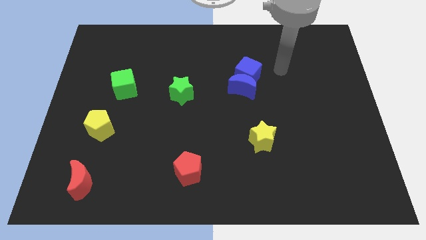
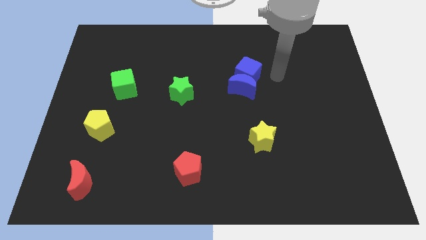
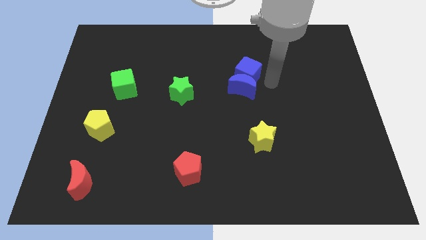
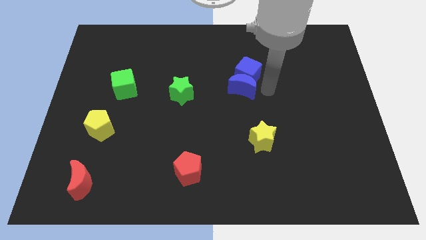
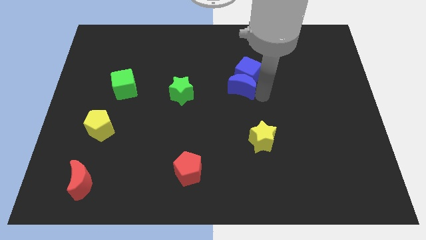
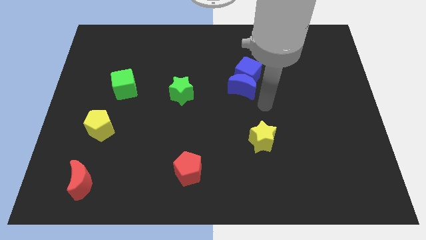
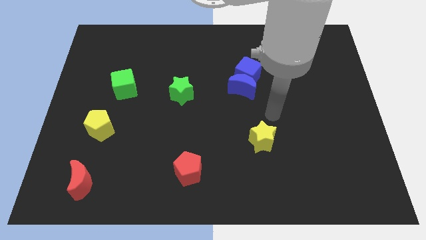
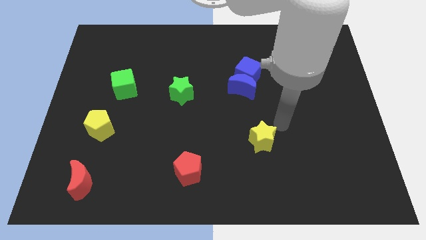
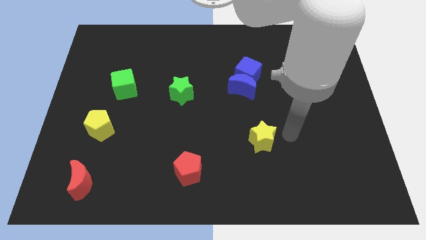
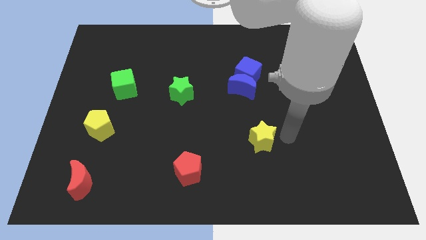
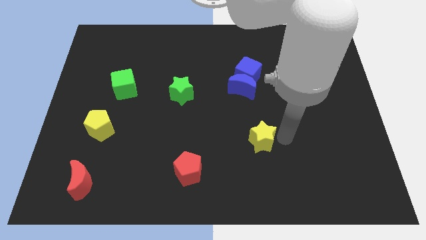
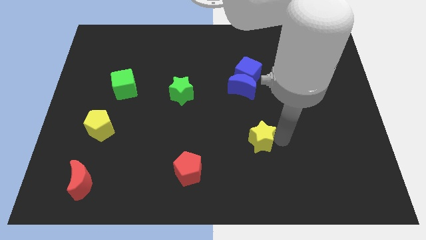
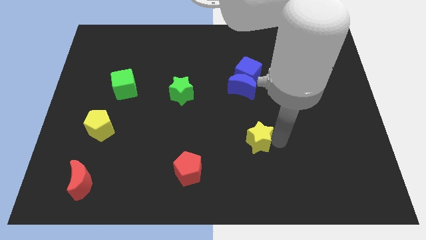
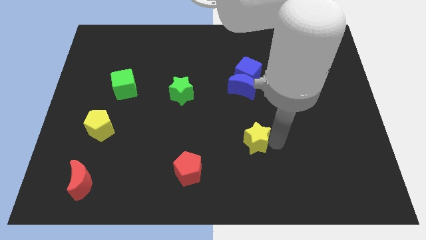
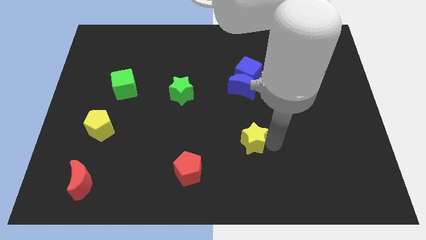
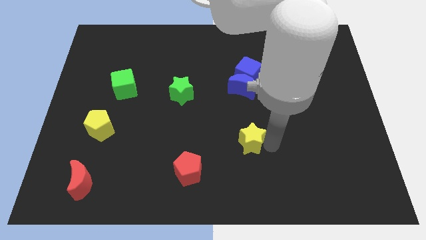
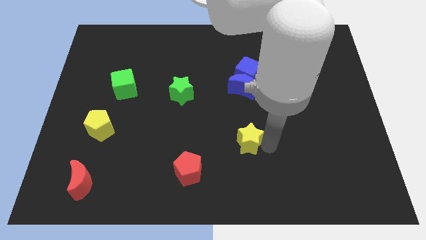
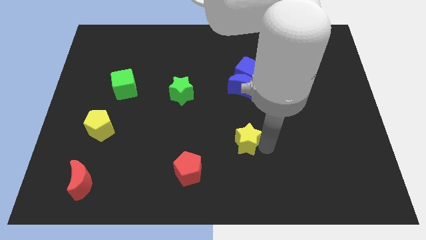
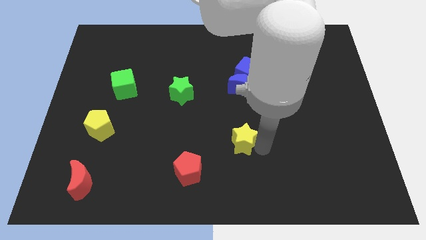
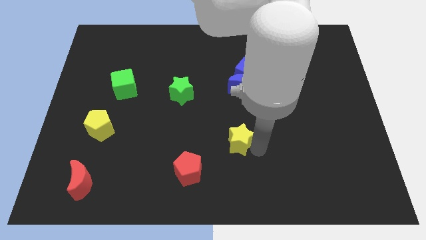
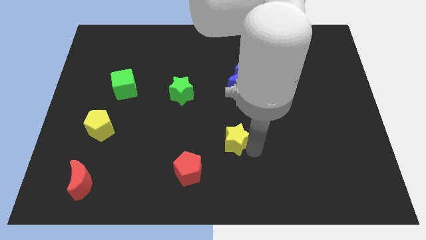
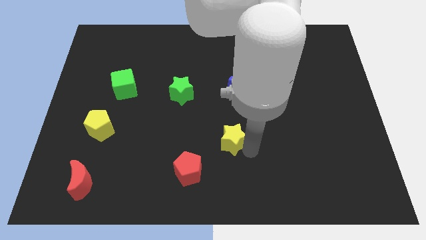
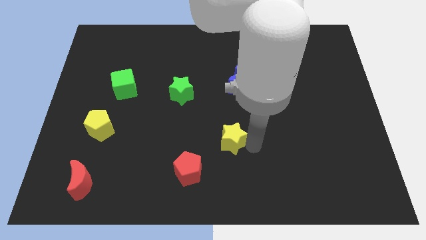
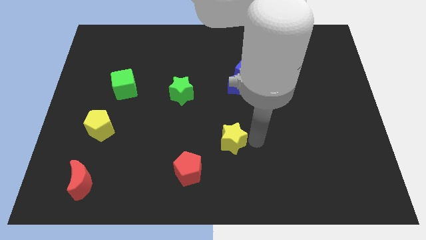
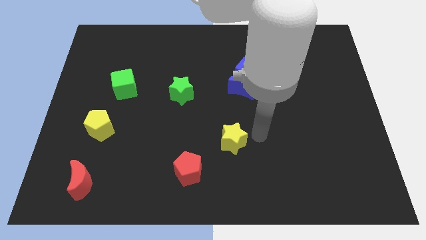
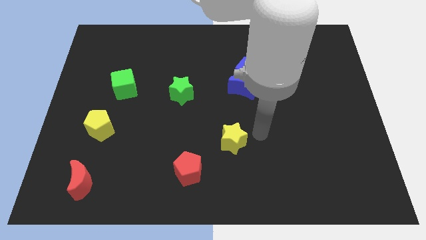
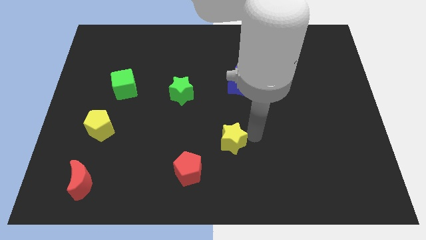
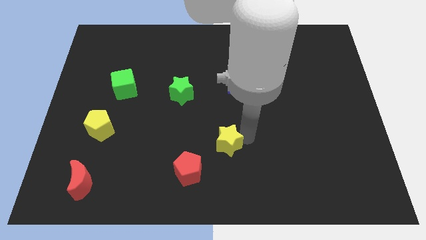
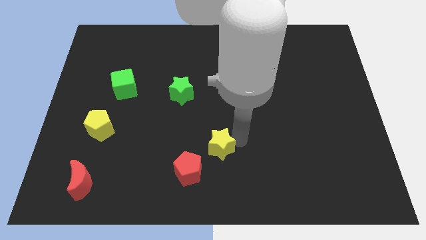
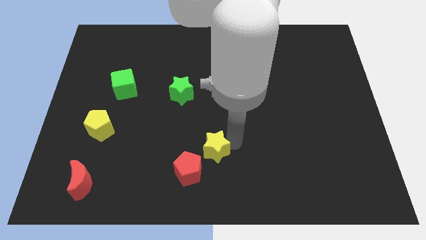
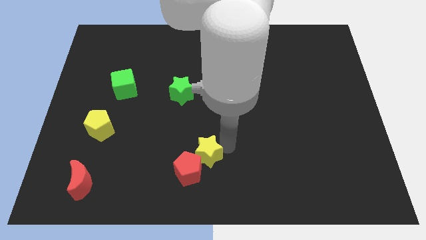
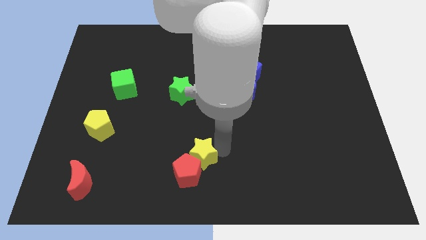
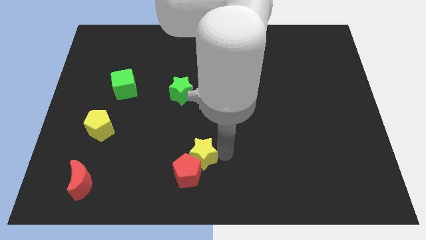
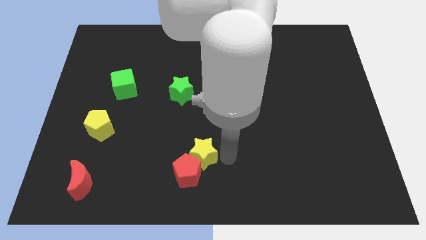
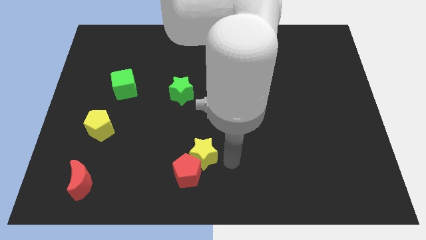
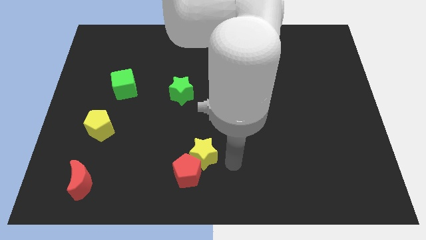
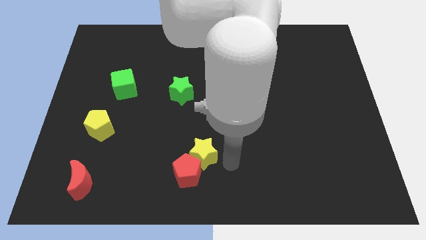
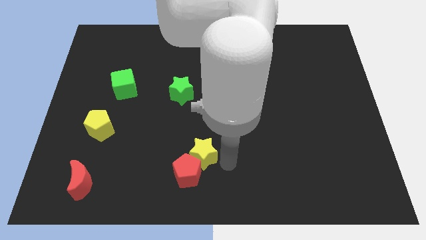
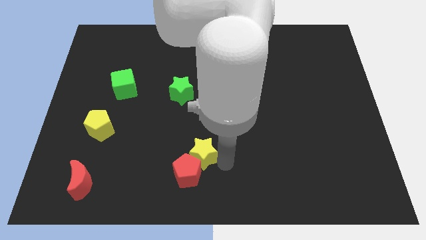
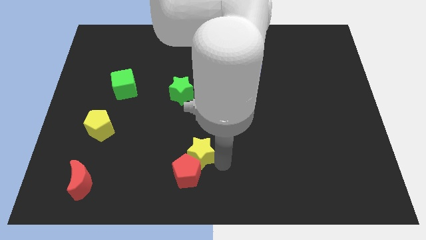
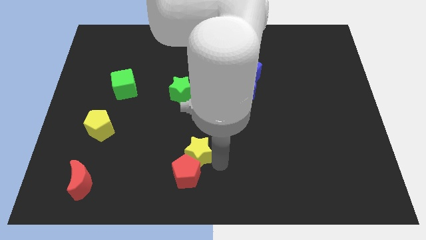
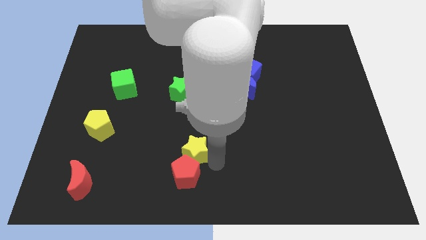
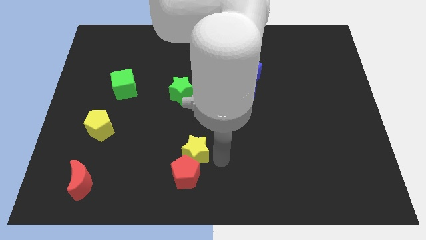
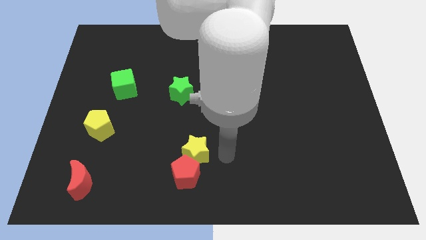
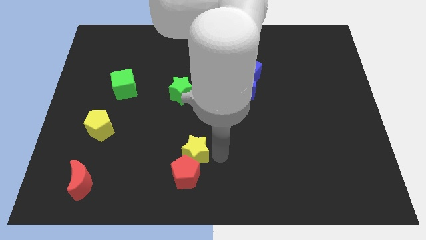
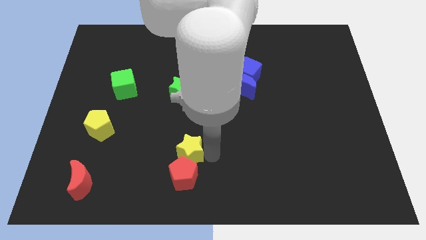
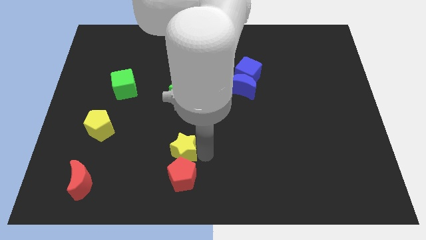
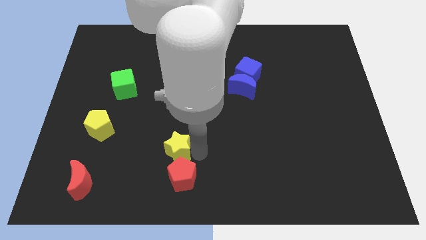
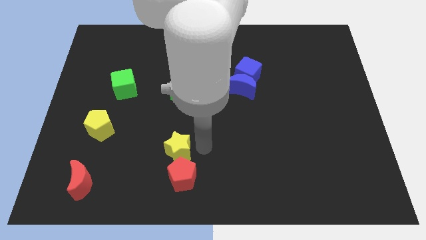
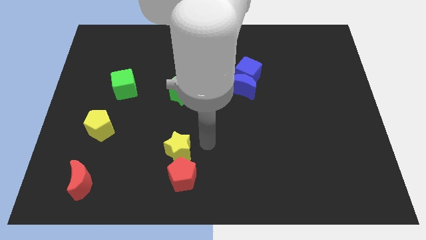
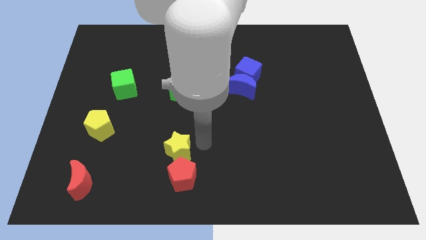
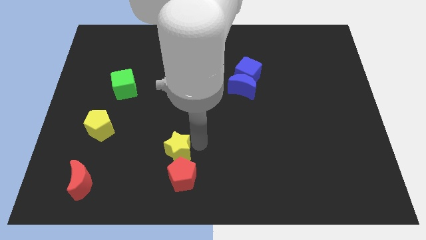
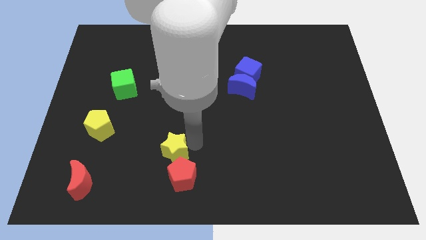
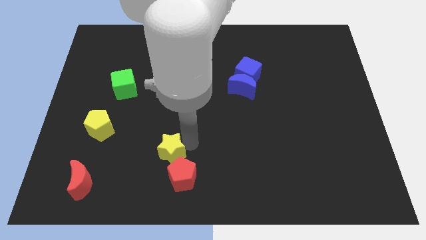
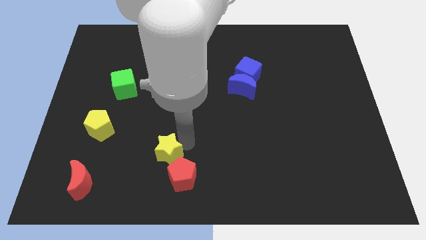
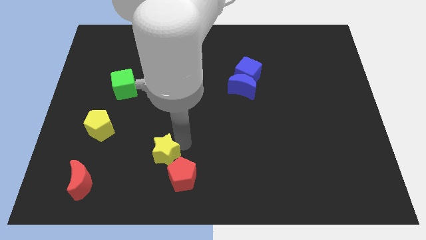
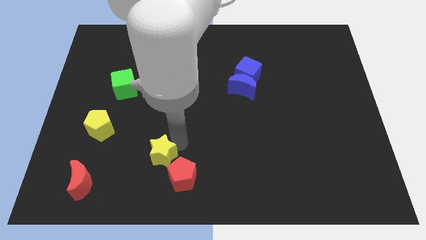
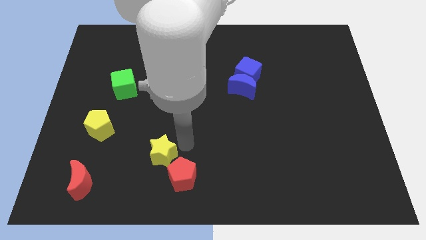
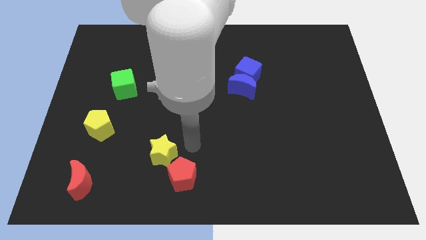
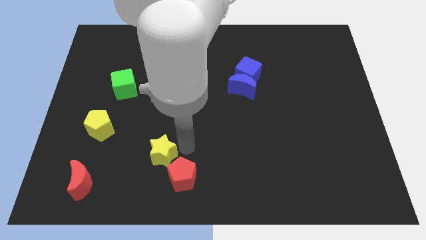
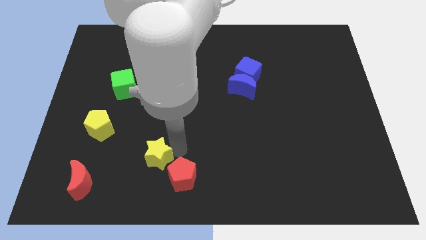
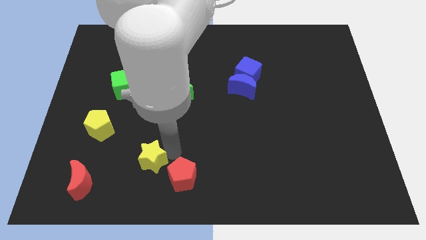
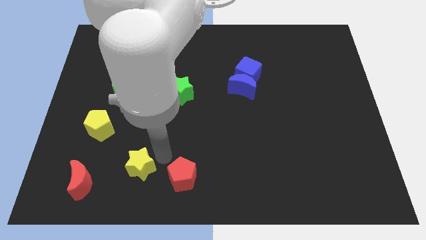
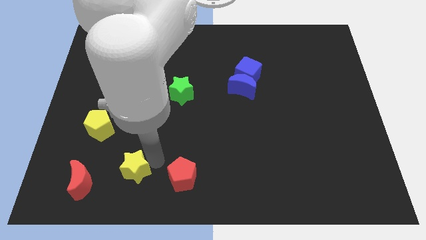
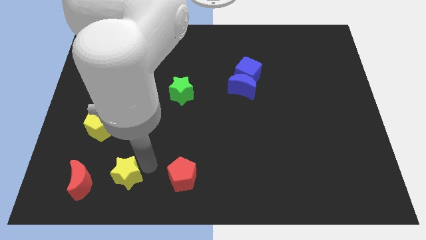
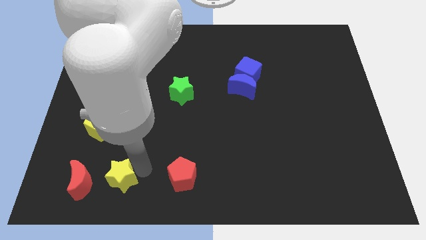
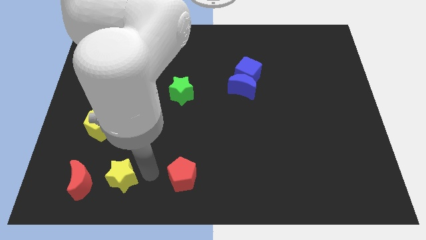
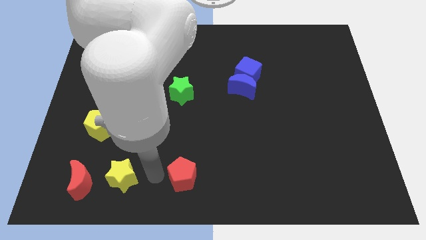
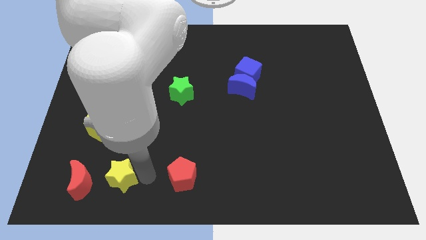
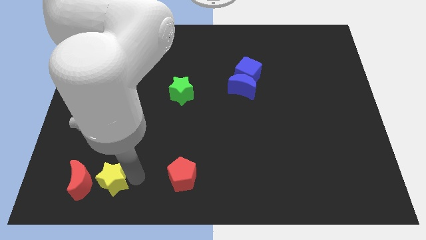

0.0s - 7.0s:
put the yellow star to the red moon
